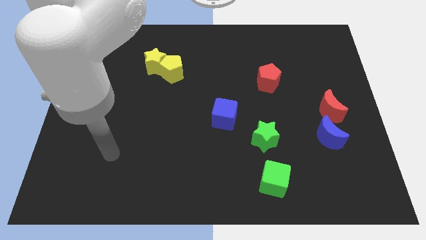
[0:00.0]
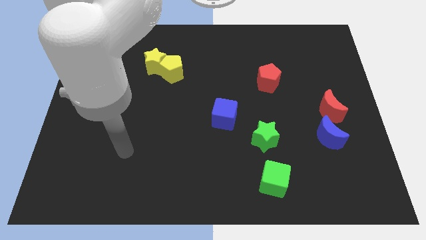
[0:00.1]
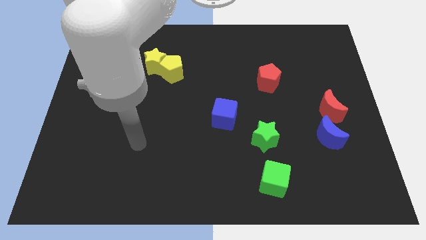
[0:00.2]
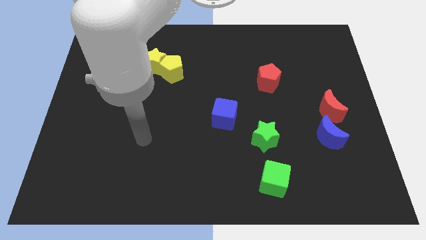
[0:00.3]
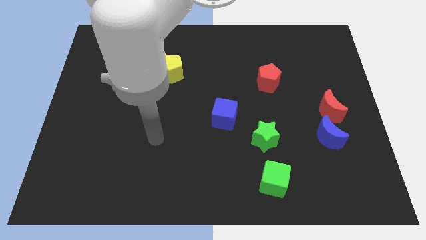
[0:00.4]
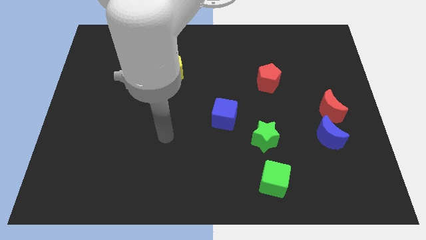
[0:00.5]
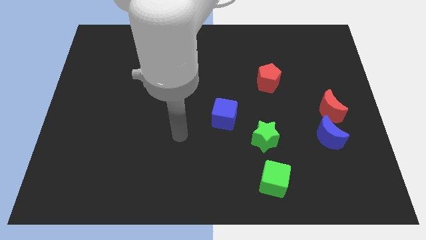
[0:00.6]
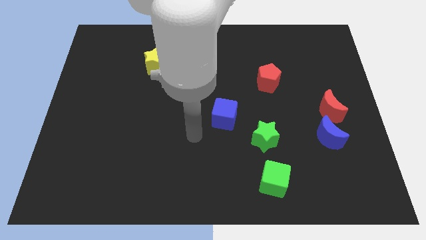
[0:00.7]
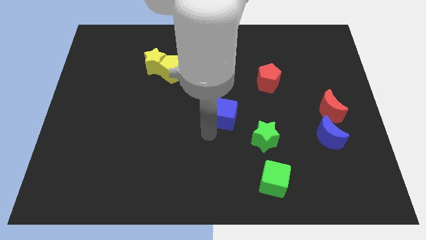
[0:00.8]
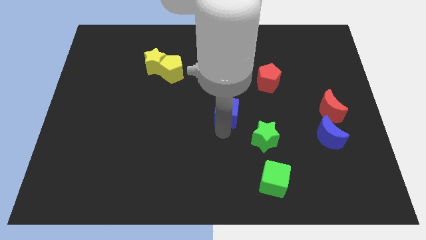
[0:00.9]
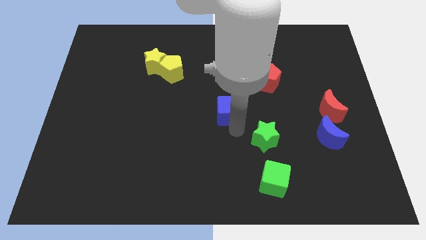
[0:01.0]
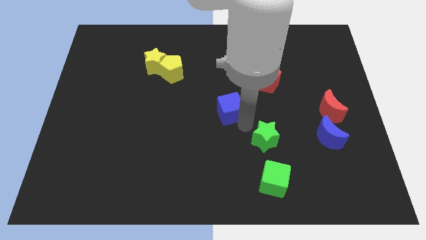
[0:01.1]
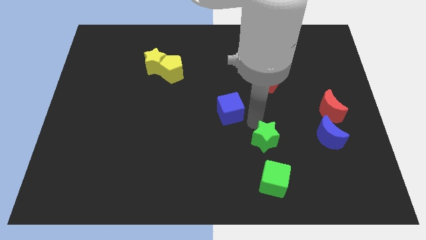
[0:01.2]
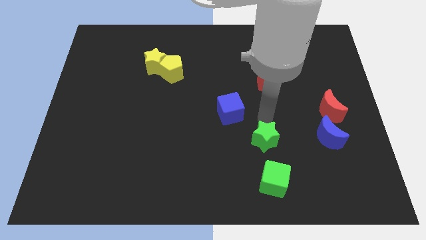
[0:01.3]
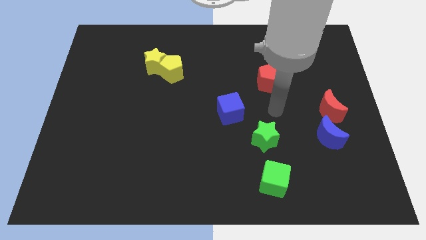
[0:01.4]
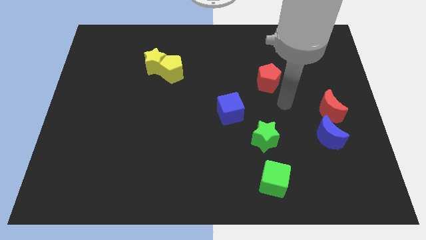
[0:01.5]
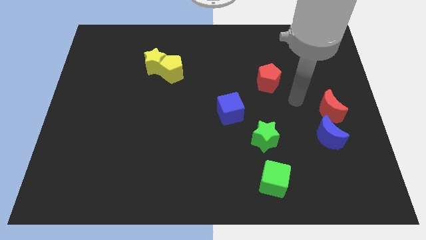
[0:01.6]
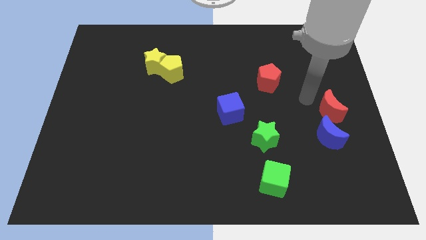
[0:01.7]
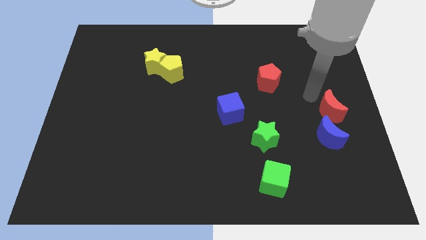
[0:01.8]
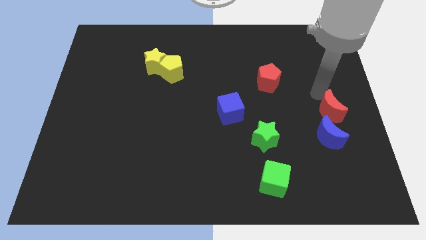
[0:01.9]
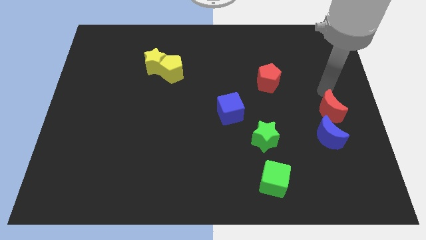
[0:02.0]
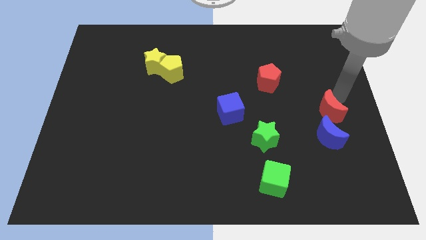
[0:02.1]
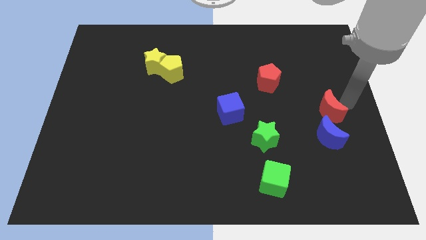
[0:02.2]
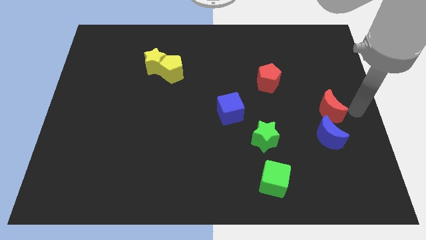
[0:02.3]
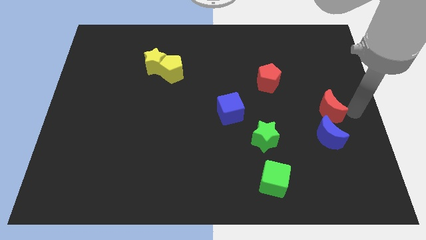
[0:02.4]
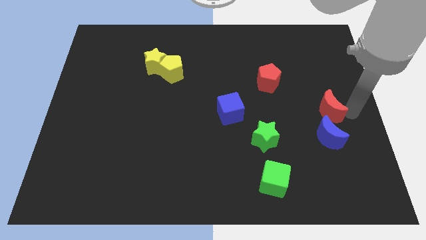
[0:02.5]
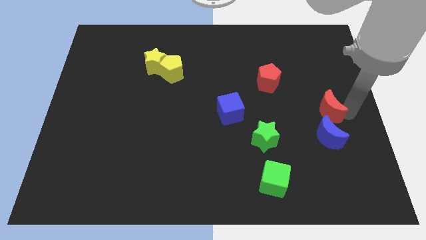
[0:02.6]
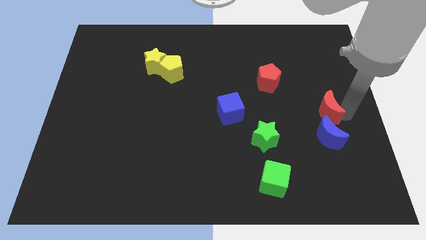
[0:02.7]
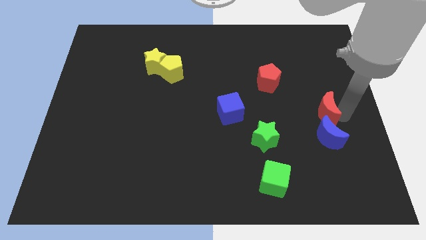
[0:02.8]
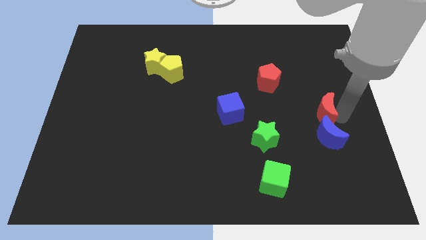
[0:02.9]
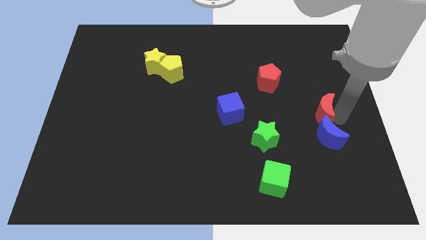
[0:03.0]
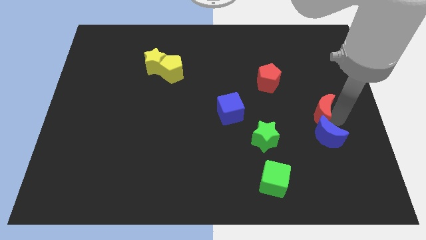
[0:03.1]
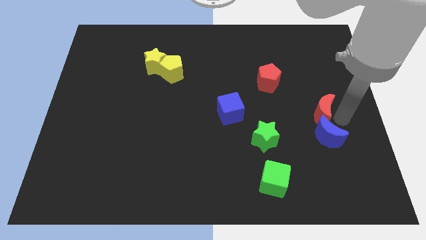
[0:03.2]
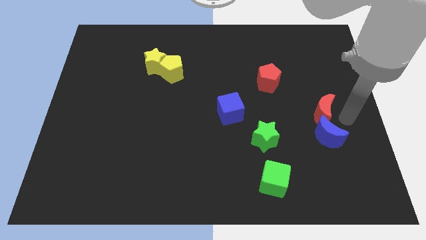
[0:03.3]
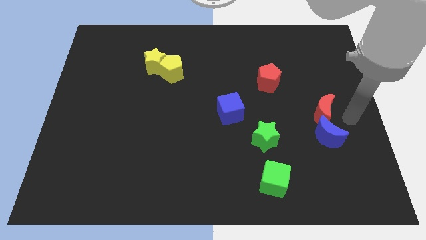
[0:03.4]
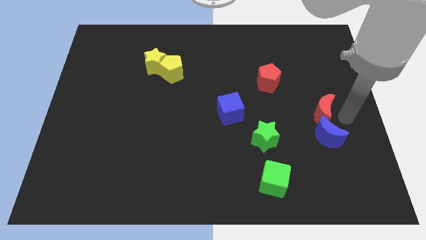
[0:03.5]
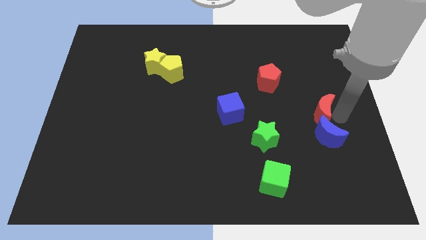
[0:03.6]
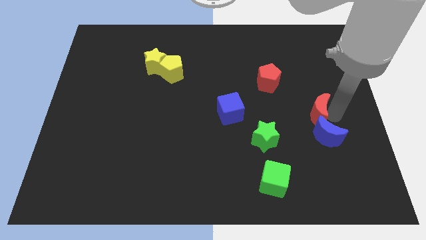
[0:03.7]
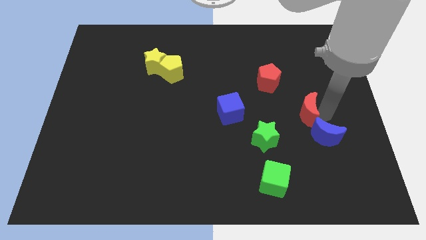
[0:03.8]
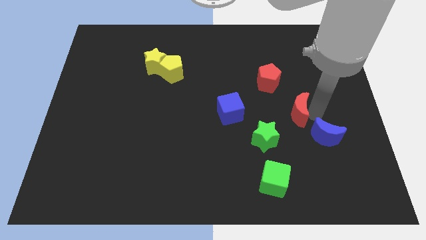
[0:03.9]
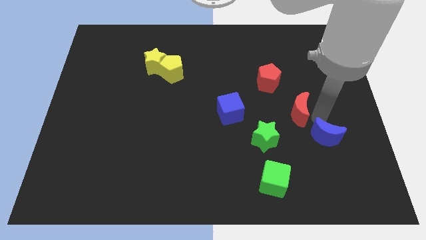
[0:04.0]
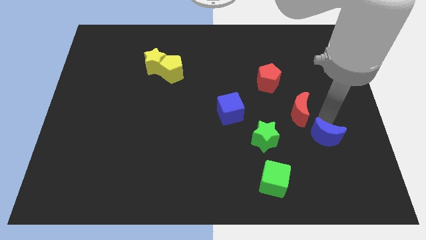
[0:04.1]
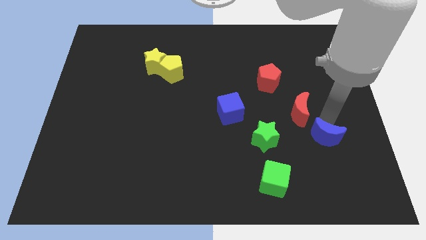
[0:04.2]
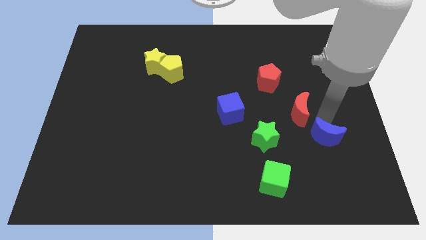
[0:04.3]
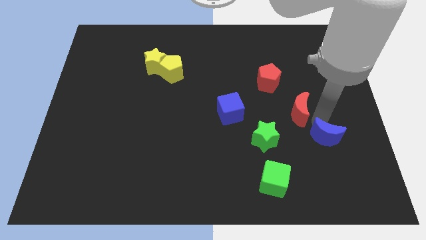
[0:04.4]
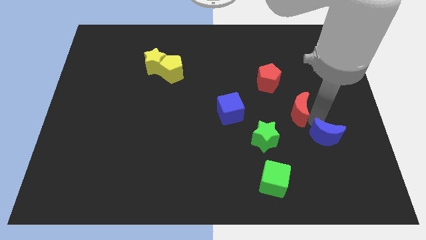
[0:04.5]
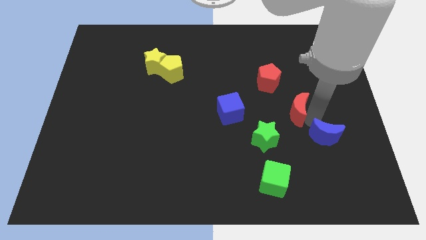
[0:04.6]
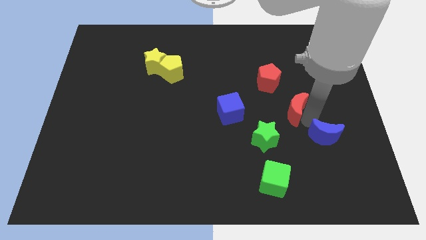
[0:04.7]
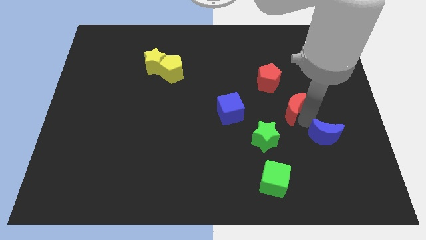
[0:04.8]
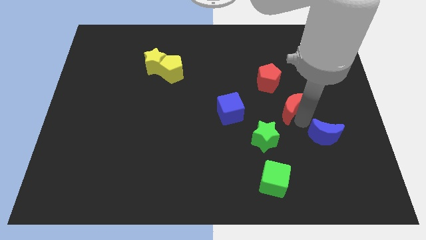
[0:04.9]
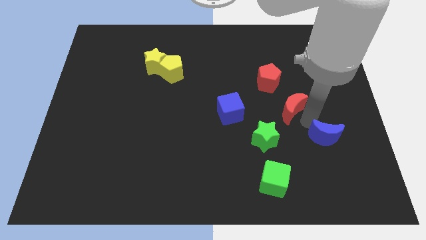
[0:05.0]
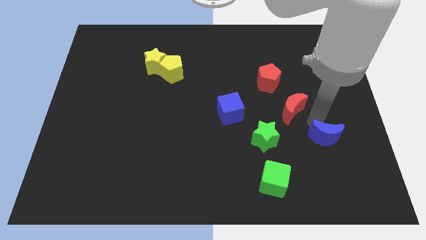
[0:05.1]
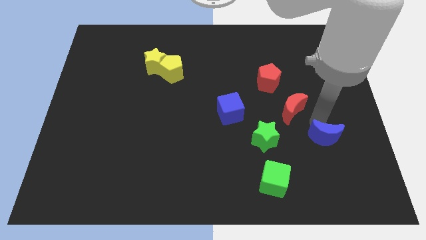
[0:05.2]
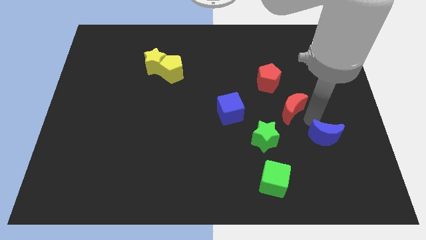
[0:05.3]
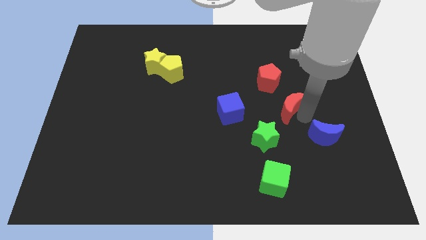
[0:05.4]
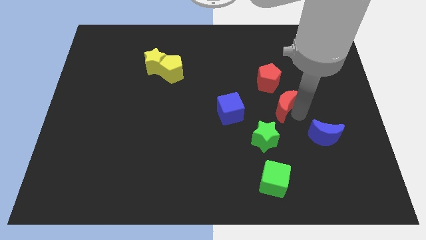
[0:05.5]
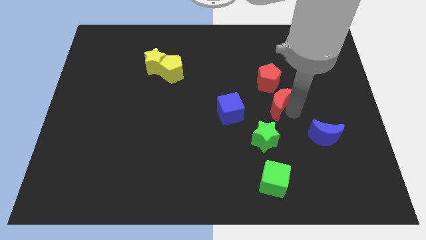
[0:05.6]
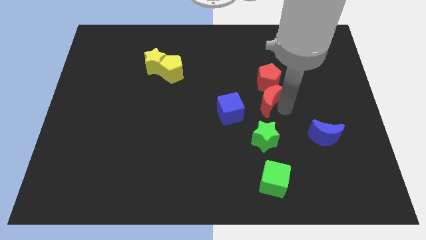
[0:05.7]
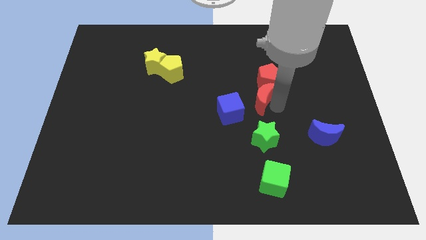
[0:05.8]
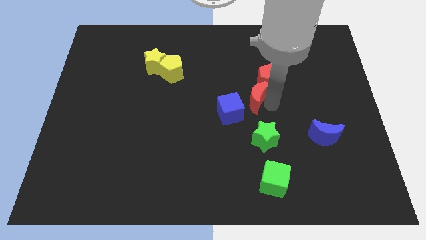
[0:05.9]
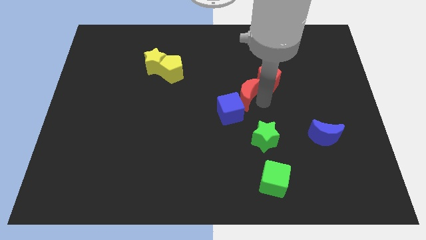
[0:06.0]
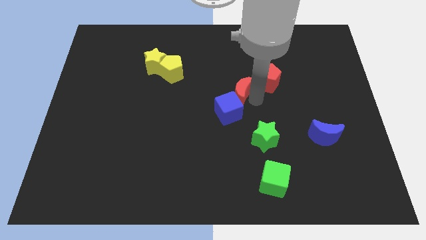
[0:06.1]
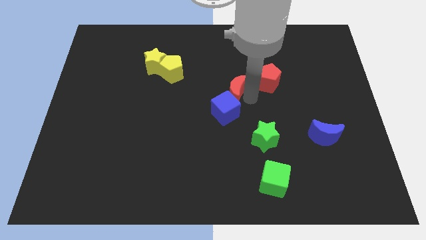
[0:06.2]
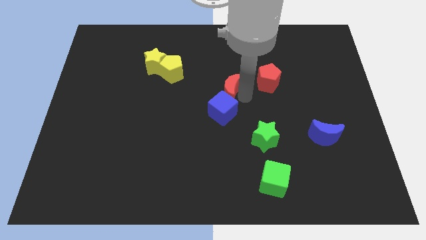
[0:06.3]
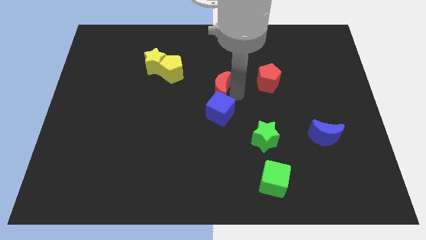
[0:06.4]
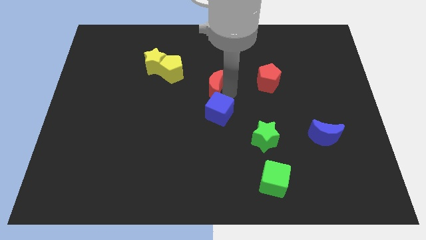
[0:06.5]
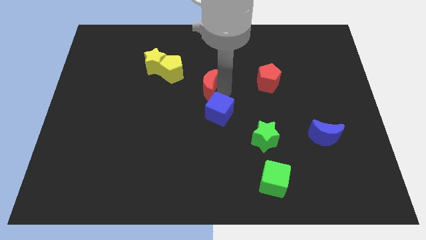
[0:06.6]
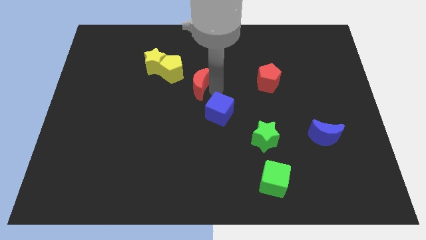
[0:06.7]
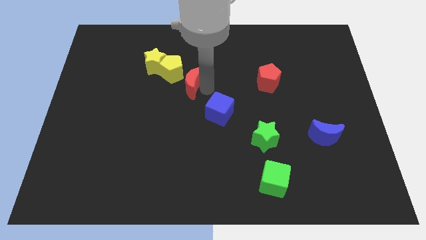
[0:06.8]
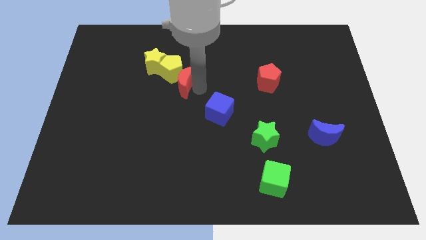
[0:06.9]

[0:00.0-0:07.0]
put the red moon close to the yellow pentagon
